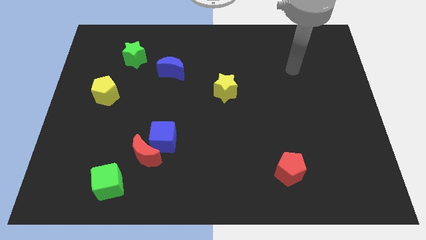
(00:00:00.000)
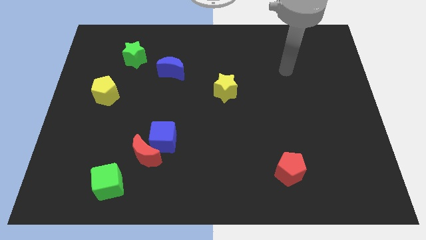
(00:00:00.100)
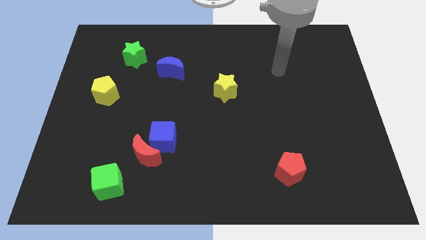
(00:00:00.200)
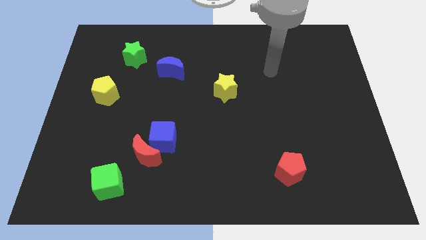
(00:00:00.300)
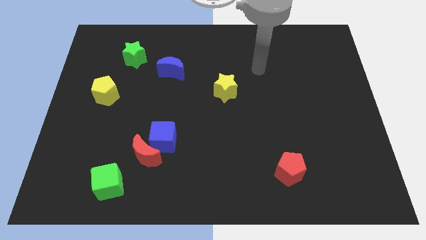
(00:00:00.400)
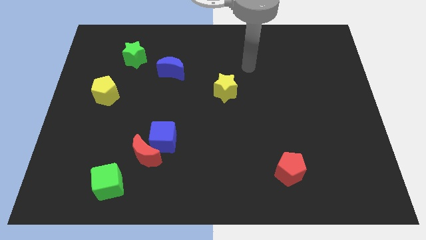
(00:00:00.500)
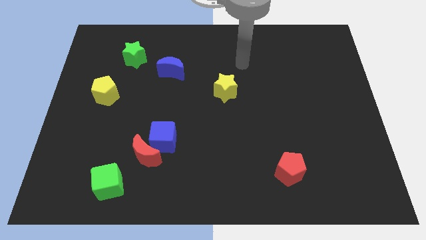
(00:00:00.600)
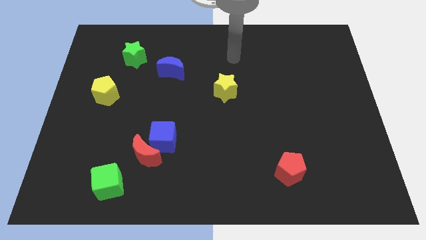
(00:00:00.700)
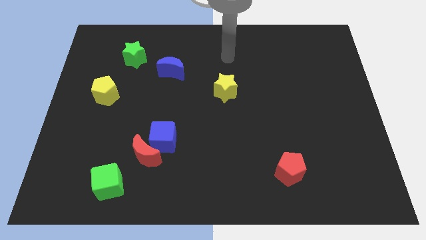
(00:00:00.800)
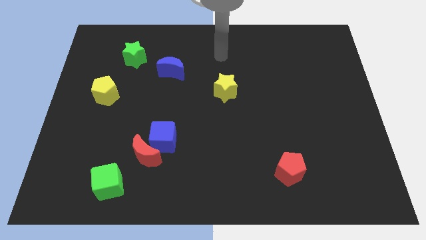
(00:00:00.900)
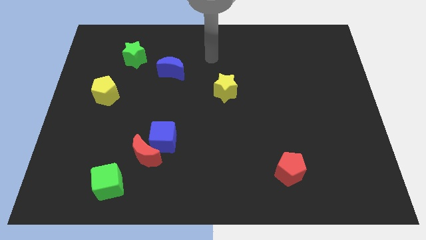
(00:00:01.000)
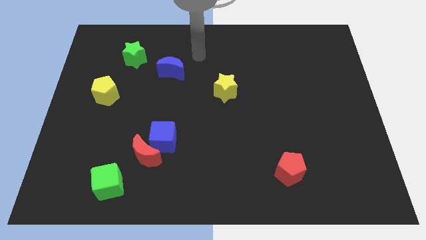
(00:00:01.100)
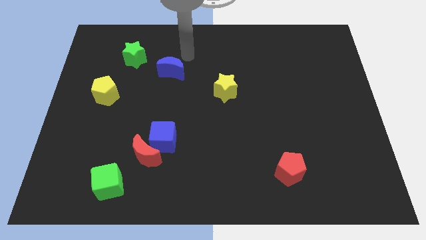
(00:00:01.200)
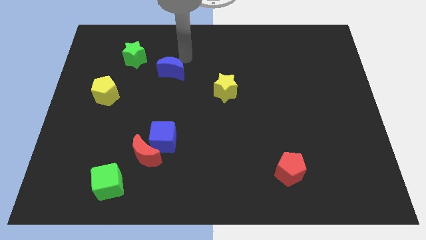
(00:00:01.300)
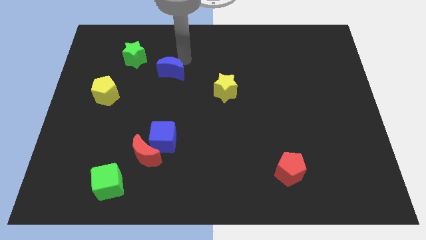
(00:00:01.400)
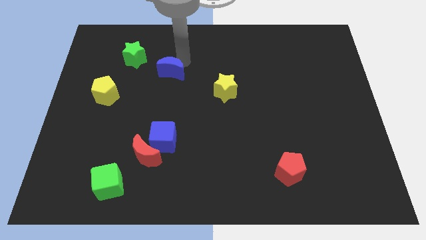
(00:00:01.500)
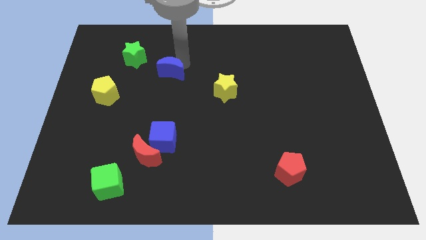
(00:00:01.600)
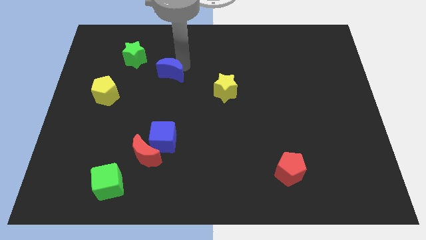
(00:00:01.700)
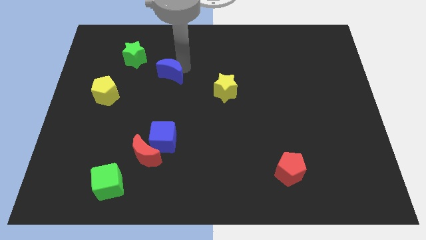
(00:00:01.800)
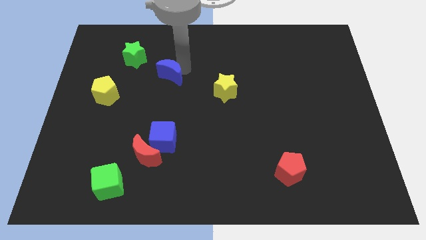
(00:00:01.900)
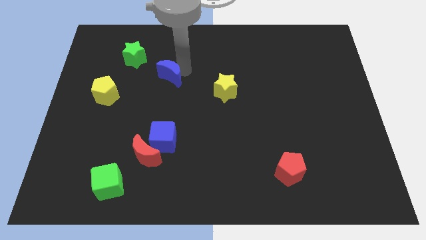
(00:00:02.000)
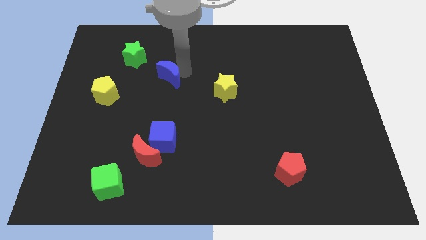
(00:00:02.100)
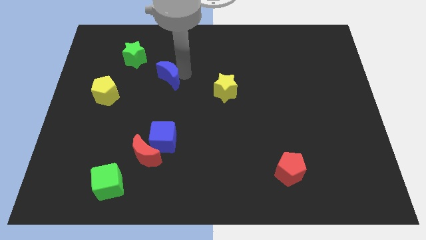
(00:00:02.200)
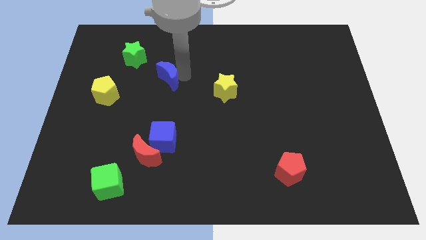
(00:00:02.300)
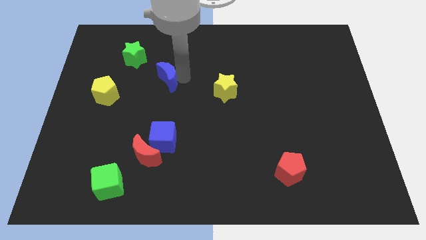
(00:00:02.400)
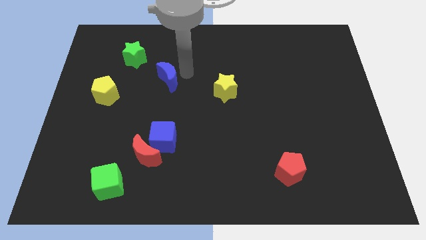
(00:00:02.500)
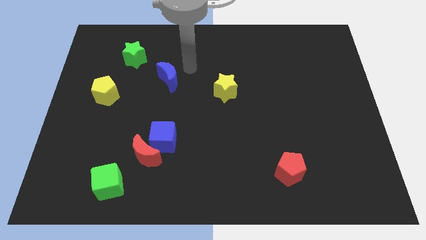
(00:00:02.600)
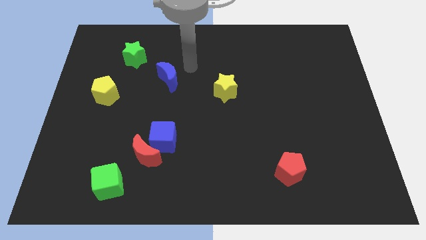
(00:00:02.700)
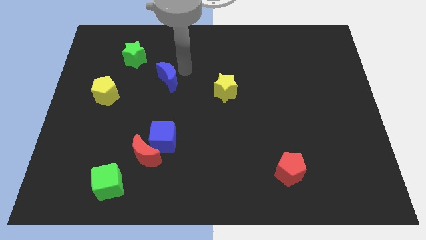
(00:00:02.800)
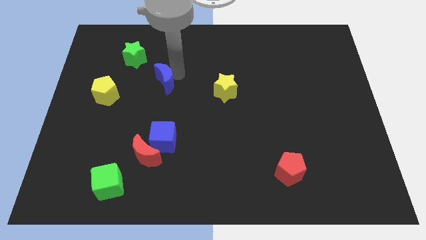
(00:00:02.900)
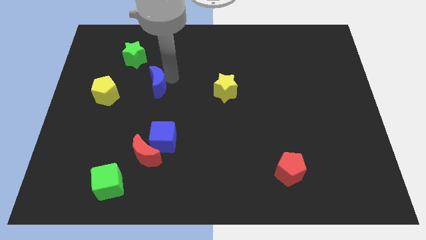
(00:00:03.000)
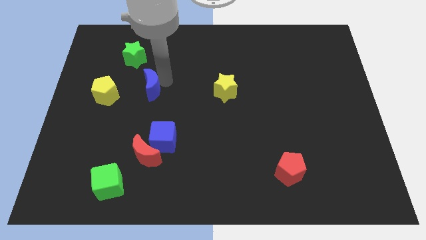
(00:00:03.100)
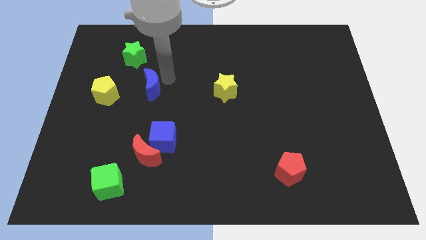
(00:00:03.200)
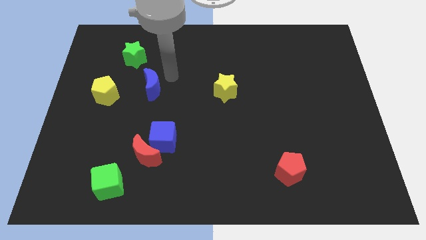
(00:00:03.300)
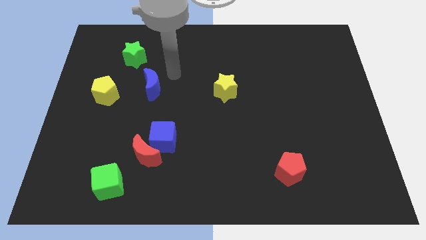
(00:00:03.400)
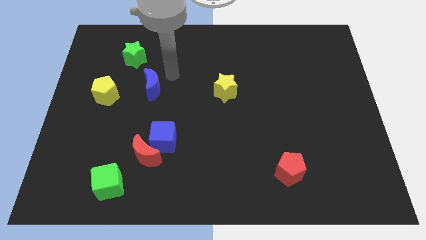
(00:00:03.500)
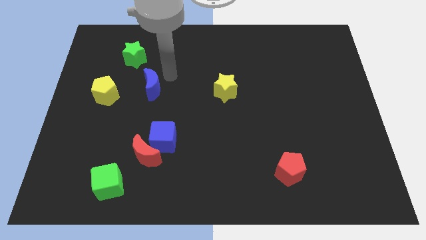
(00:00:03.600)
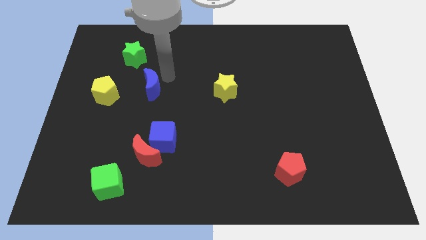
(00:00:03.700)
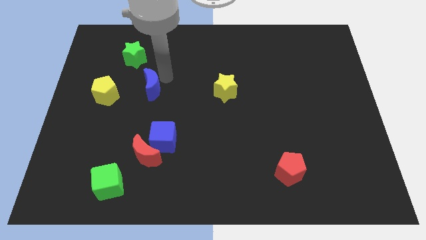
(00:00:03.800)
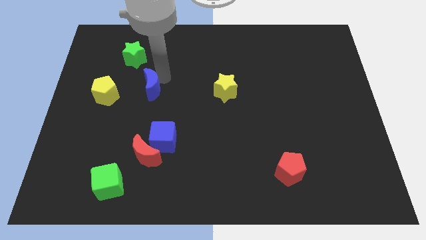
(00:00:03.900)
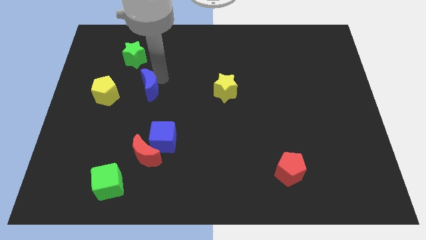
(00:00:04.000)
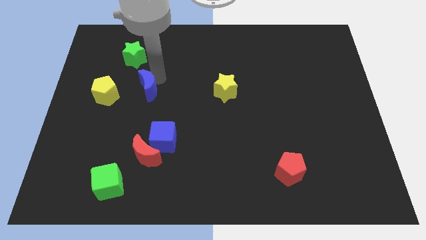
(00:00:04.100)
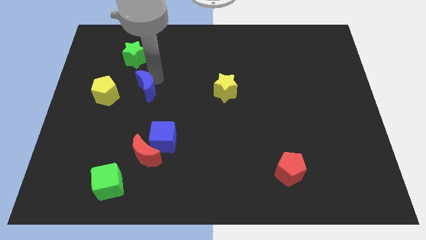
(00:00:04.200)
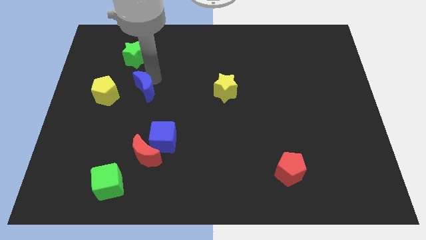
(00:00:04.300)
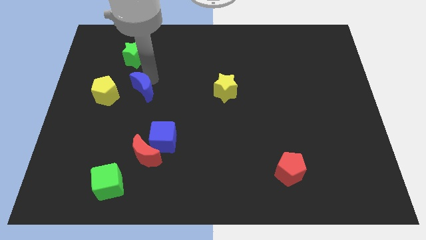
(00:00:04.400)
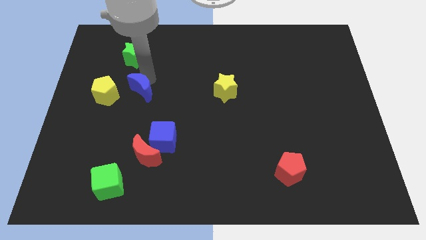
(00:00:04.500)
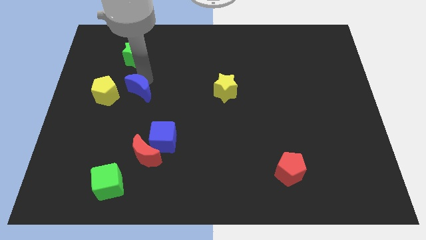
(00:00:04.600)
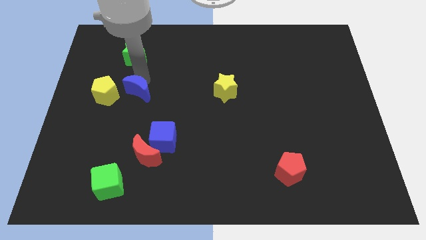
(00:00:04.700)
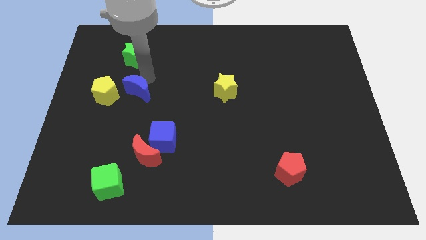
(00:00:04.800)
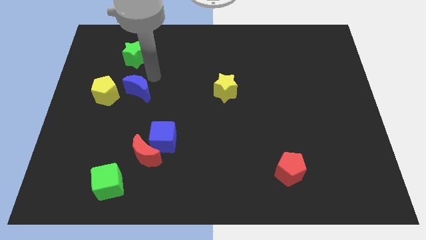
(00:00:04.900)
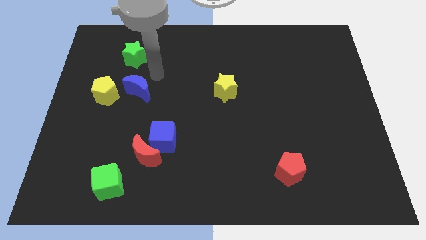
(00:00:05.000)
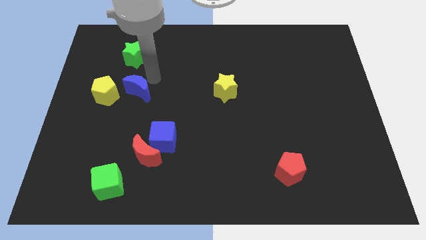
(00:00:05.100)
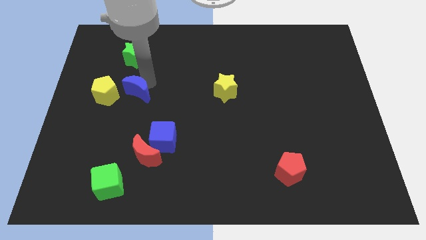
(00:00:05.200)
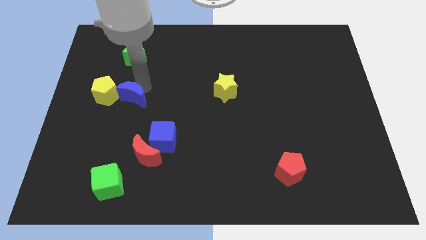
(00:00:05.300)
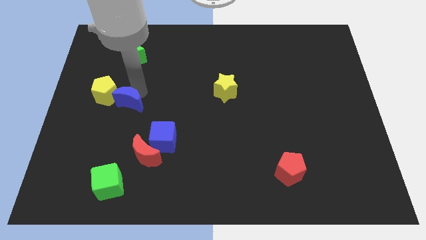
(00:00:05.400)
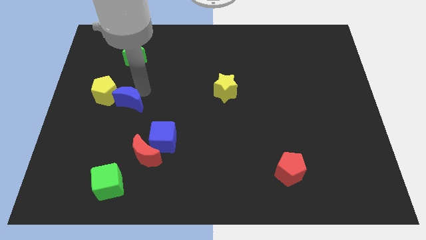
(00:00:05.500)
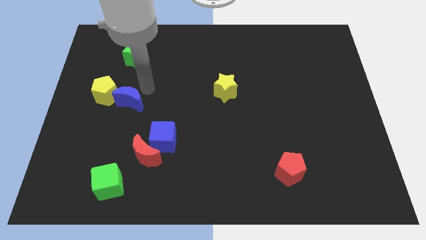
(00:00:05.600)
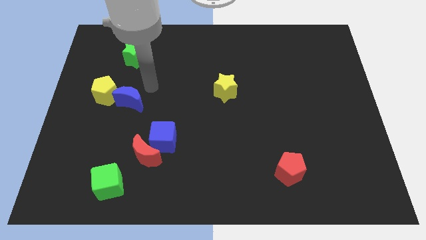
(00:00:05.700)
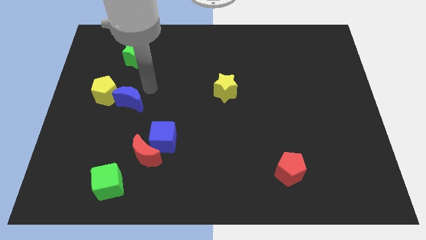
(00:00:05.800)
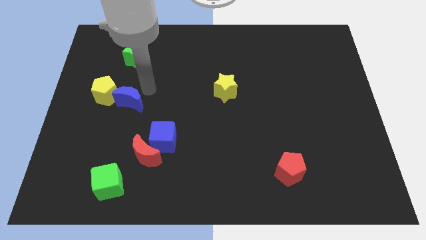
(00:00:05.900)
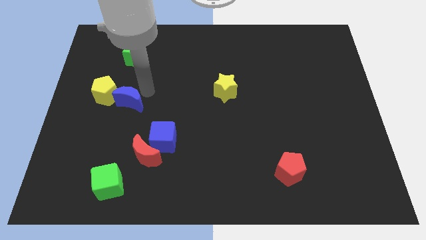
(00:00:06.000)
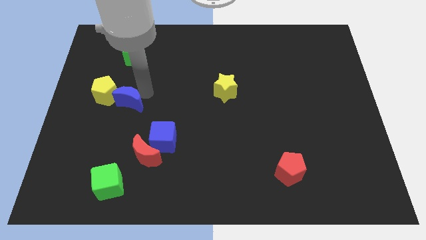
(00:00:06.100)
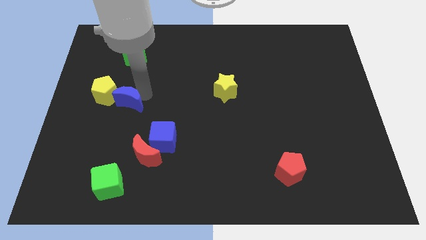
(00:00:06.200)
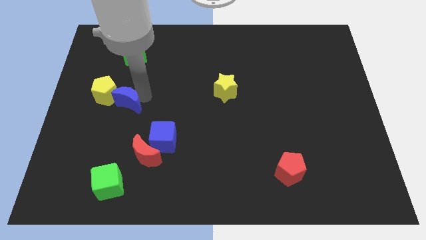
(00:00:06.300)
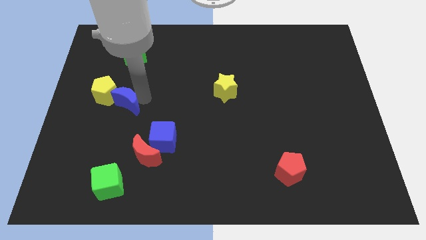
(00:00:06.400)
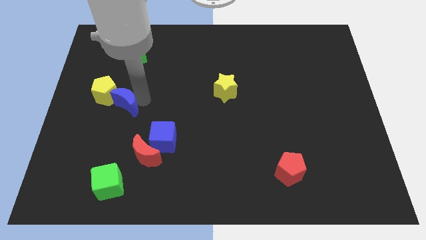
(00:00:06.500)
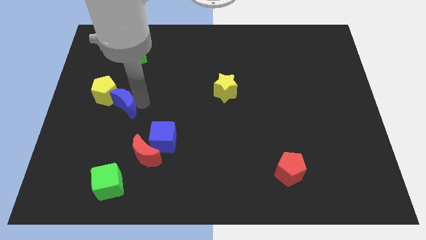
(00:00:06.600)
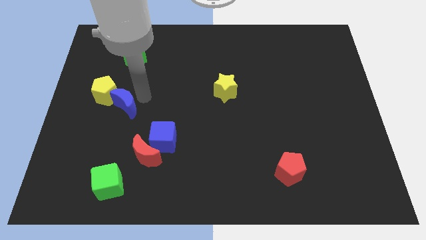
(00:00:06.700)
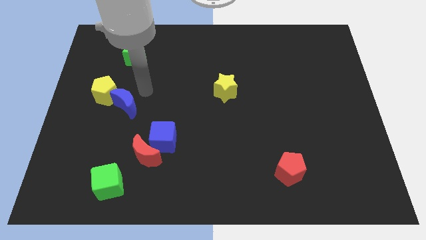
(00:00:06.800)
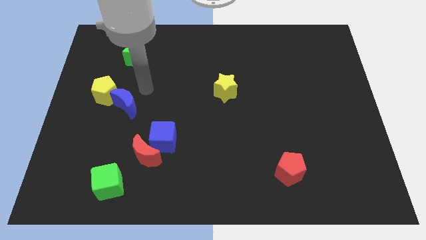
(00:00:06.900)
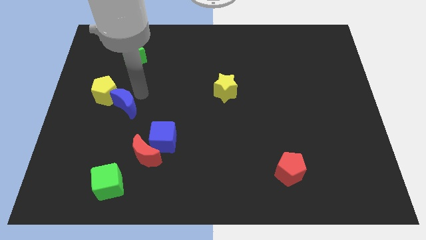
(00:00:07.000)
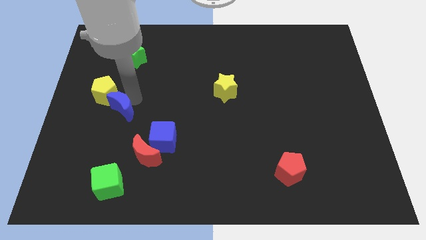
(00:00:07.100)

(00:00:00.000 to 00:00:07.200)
slide the blue moon to the bottom of the yellow pentagon

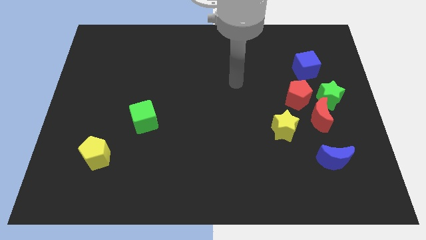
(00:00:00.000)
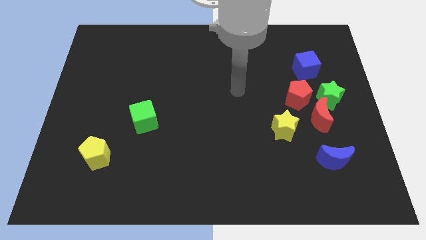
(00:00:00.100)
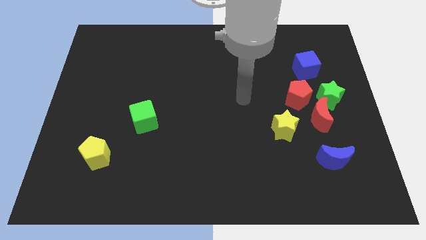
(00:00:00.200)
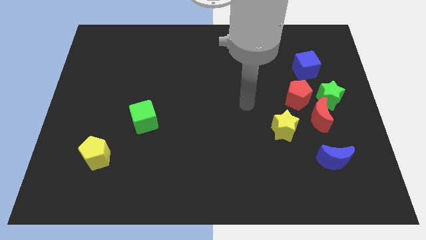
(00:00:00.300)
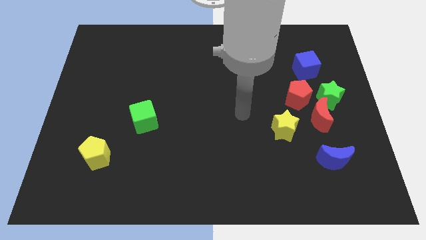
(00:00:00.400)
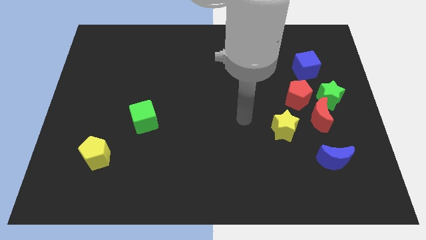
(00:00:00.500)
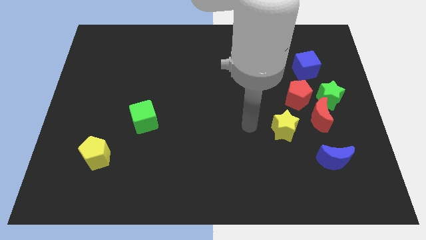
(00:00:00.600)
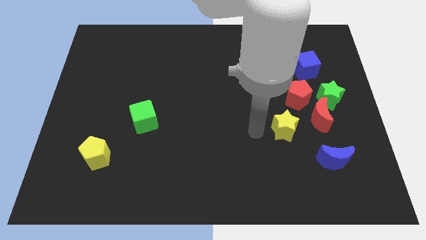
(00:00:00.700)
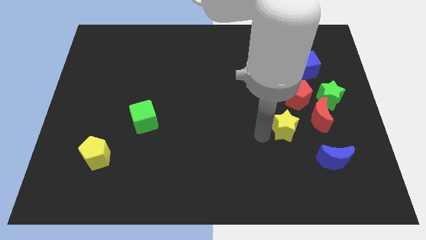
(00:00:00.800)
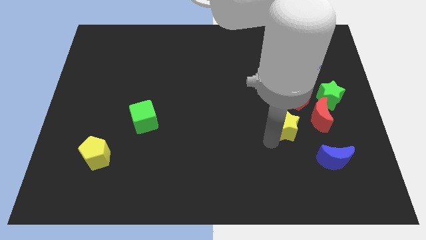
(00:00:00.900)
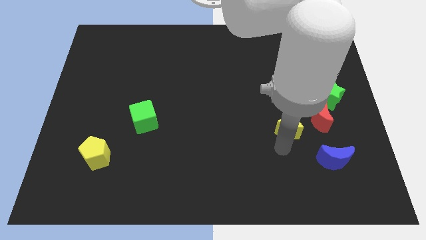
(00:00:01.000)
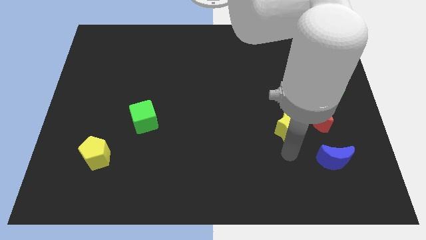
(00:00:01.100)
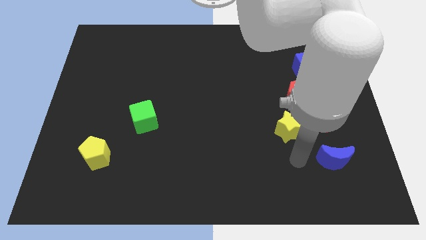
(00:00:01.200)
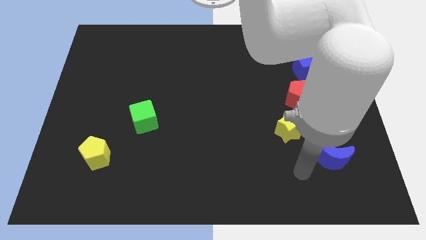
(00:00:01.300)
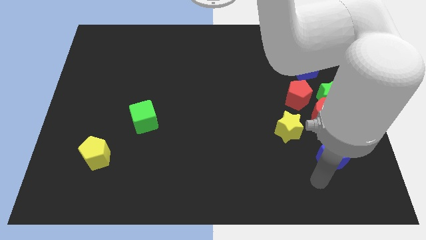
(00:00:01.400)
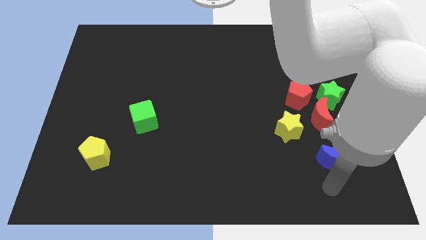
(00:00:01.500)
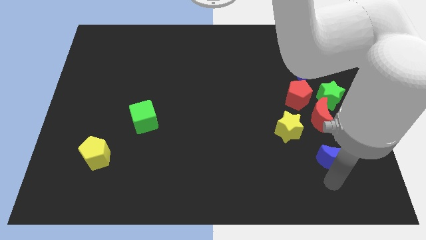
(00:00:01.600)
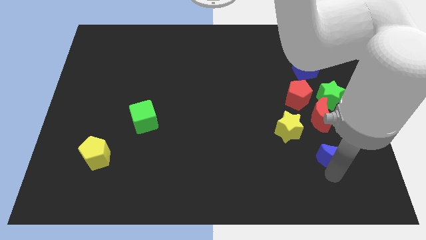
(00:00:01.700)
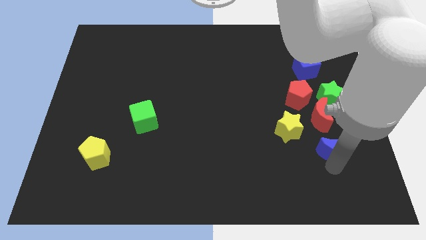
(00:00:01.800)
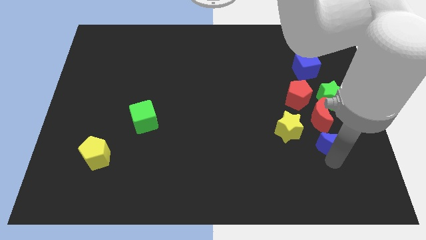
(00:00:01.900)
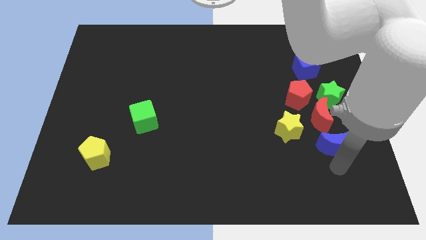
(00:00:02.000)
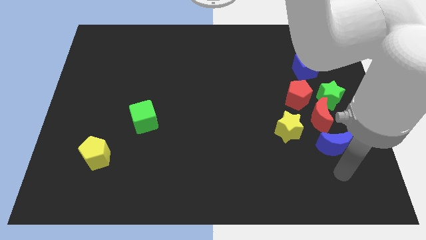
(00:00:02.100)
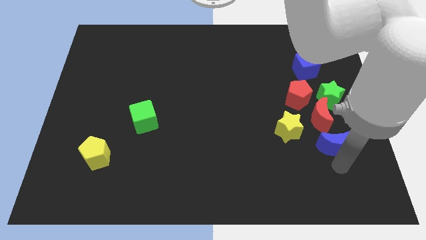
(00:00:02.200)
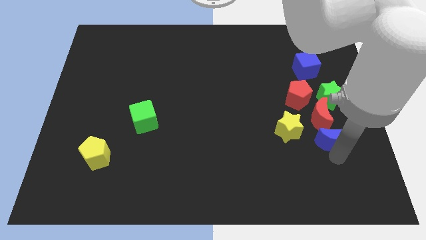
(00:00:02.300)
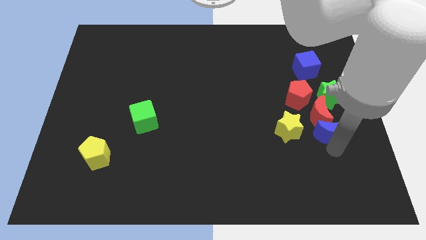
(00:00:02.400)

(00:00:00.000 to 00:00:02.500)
put the blue moon to the bottom right of the red pentagon
